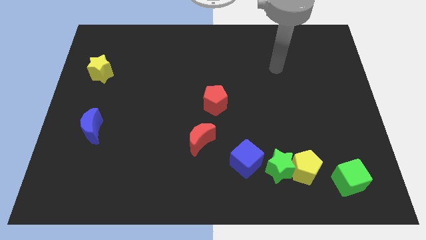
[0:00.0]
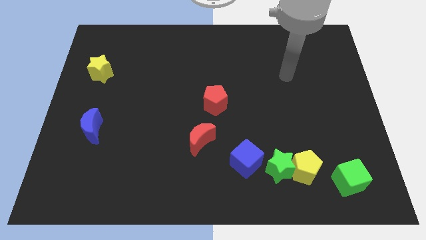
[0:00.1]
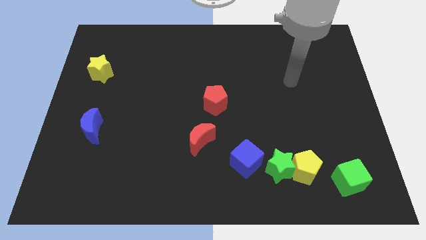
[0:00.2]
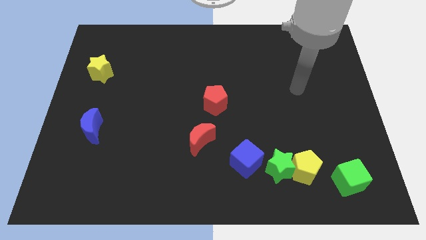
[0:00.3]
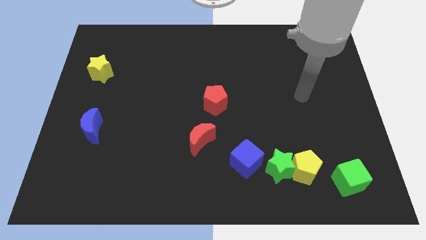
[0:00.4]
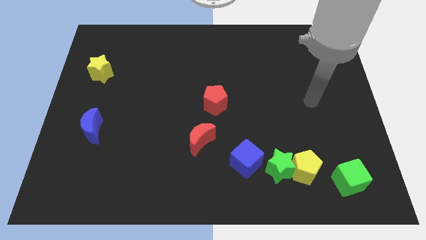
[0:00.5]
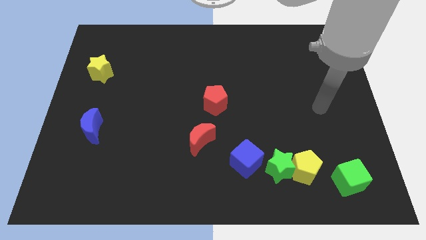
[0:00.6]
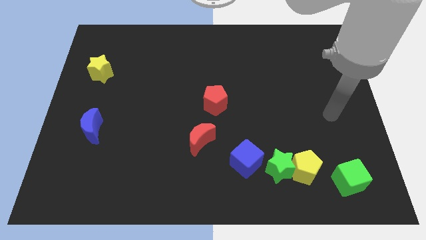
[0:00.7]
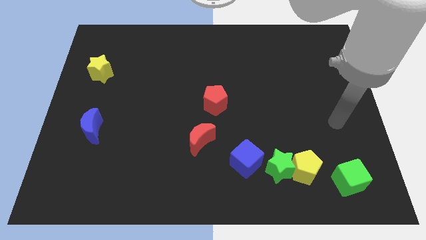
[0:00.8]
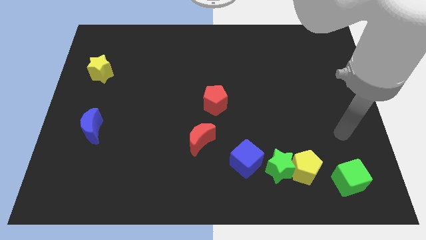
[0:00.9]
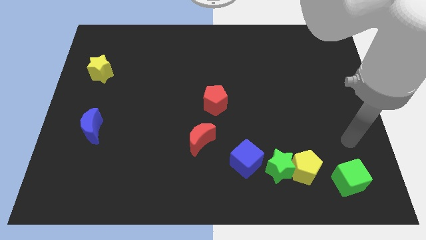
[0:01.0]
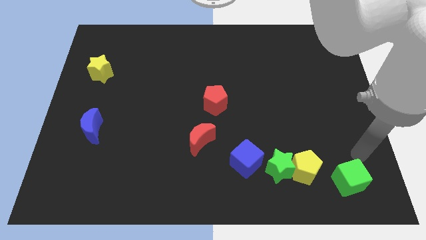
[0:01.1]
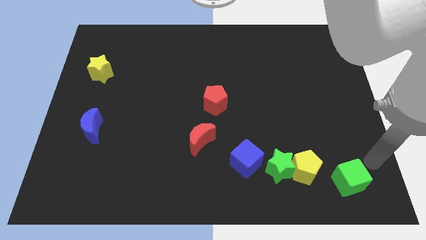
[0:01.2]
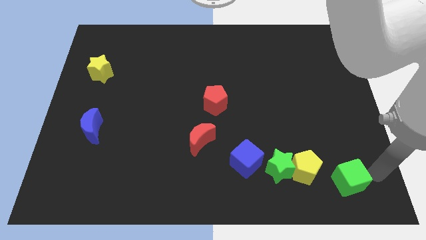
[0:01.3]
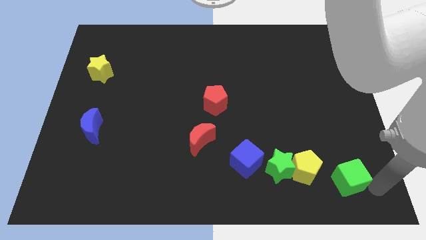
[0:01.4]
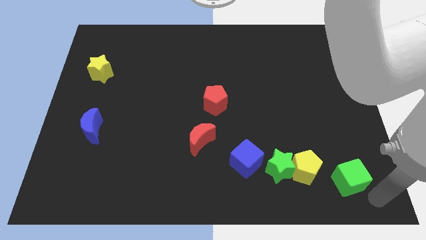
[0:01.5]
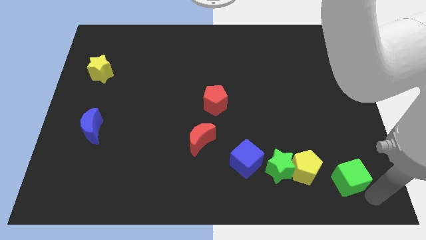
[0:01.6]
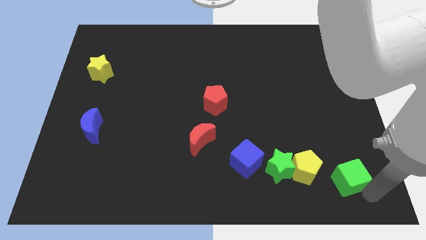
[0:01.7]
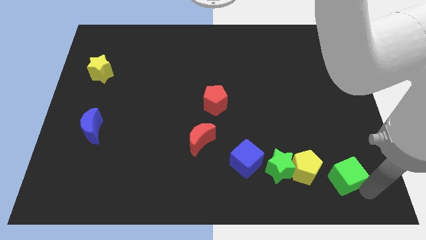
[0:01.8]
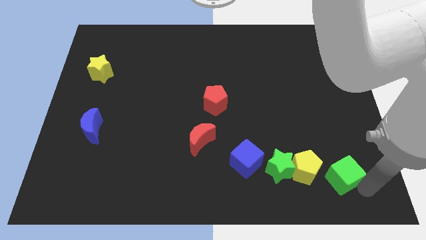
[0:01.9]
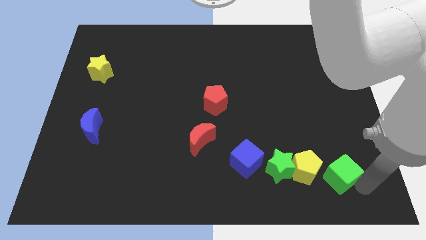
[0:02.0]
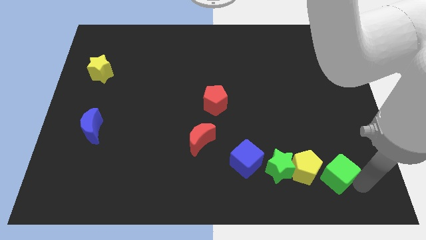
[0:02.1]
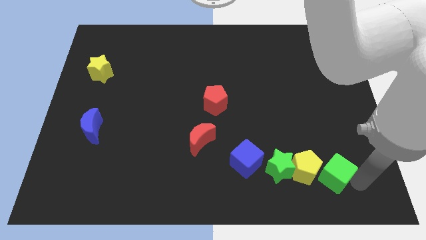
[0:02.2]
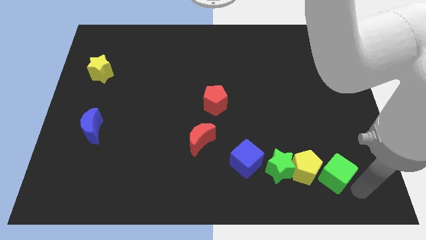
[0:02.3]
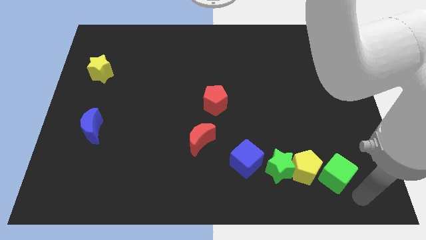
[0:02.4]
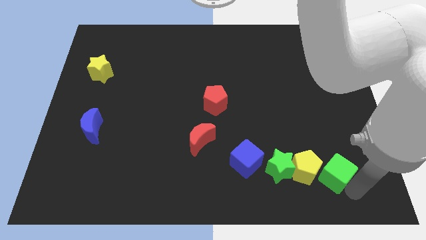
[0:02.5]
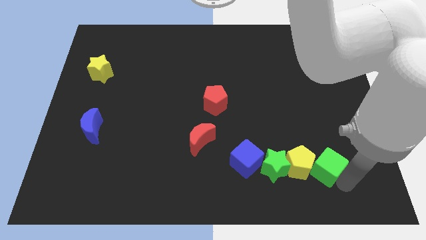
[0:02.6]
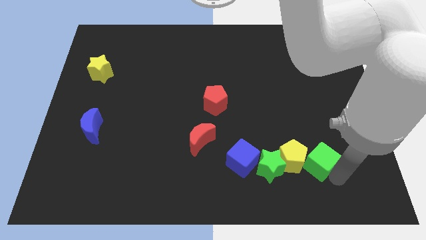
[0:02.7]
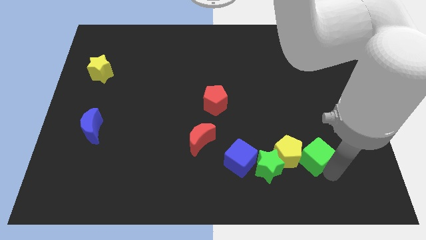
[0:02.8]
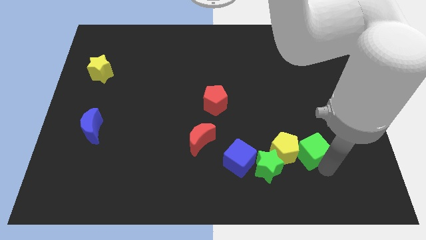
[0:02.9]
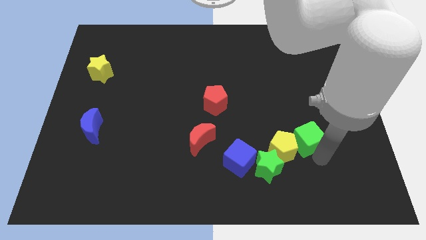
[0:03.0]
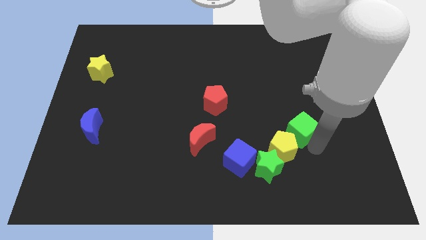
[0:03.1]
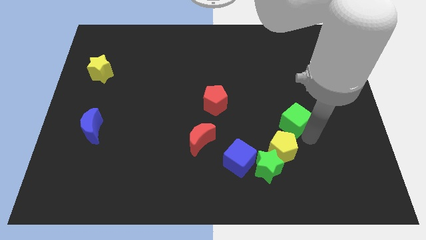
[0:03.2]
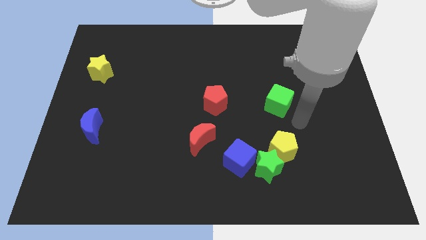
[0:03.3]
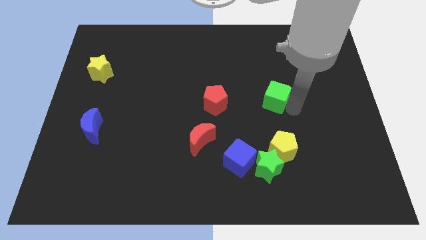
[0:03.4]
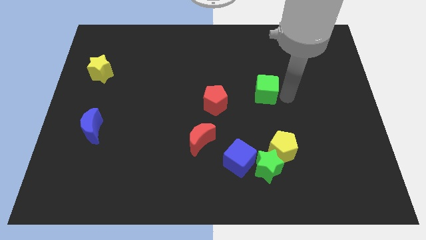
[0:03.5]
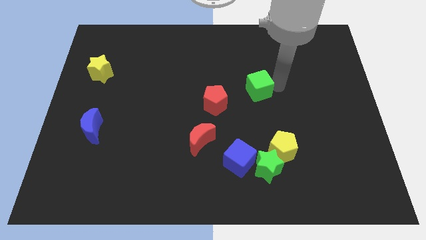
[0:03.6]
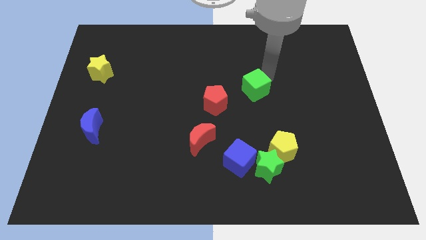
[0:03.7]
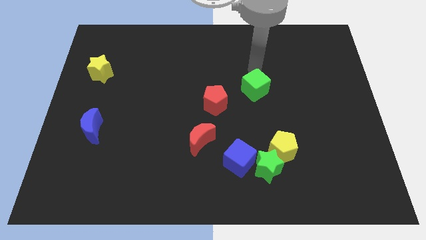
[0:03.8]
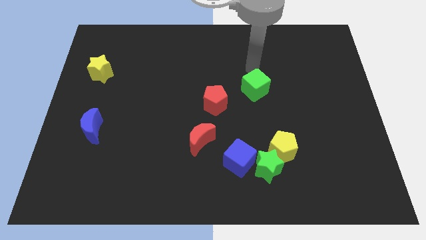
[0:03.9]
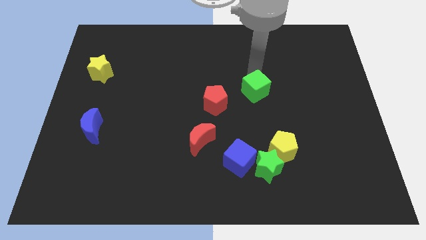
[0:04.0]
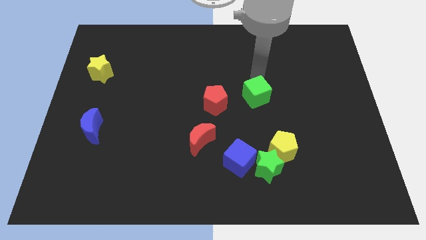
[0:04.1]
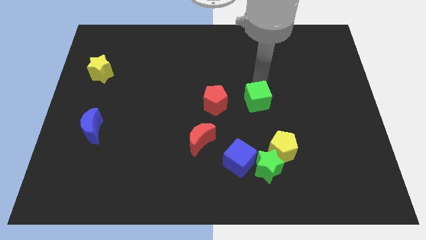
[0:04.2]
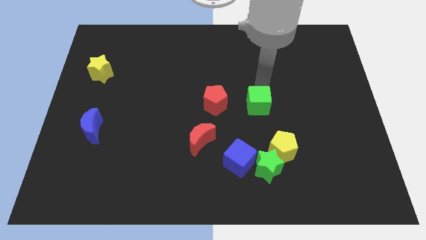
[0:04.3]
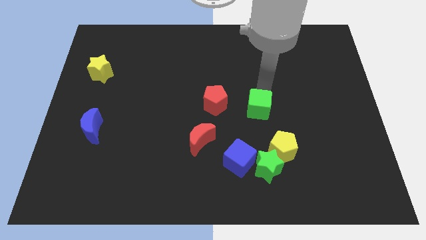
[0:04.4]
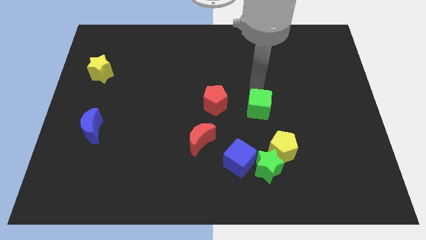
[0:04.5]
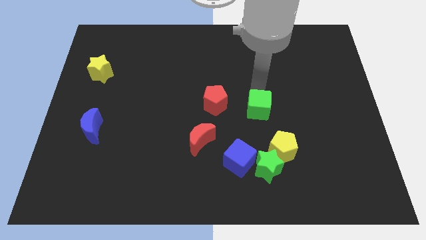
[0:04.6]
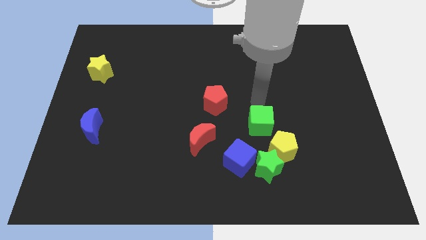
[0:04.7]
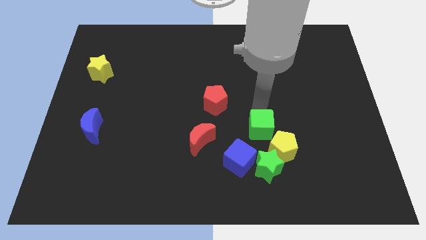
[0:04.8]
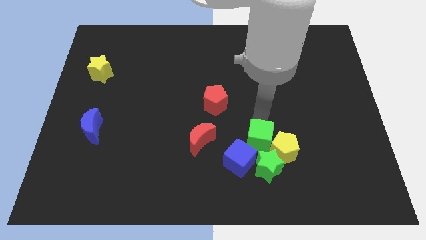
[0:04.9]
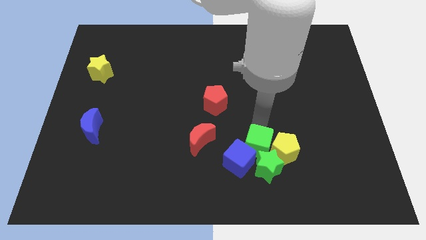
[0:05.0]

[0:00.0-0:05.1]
put the green cube to the green star

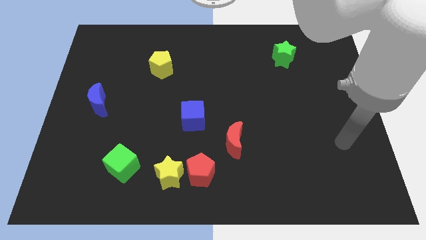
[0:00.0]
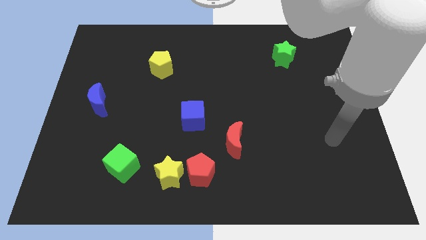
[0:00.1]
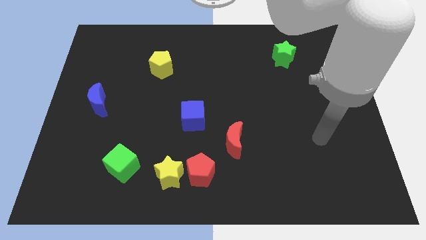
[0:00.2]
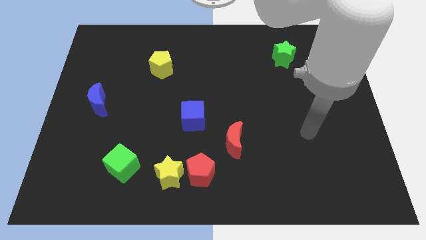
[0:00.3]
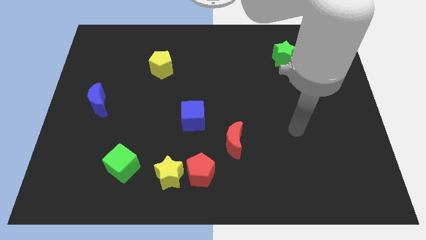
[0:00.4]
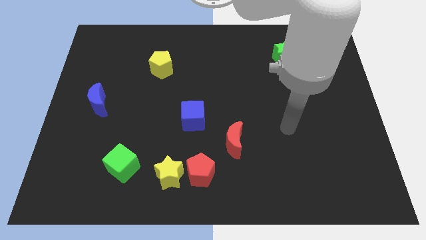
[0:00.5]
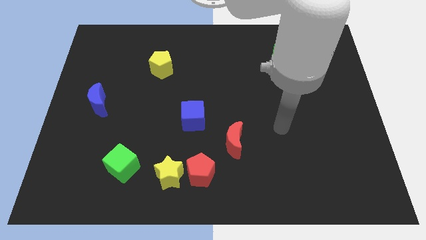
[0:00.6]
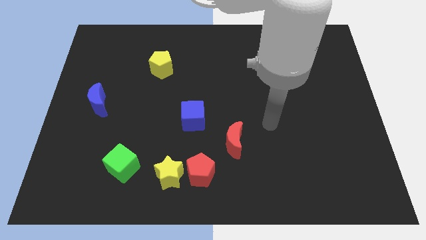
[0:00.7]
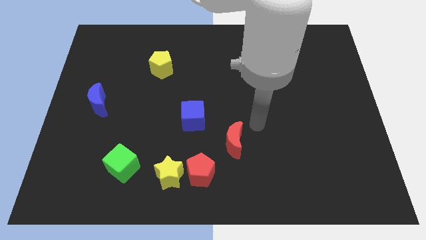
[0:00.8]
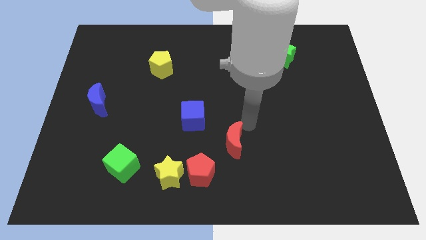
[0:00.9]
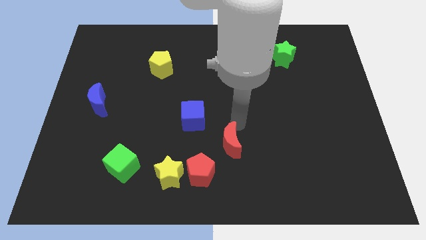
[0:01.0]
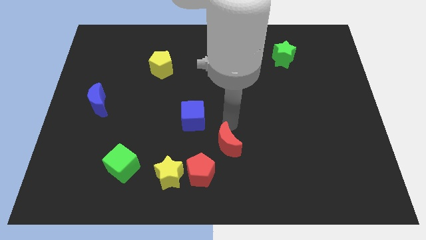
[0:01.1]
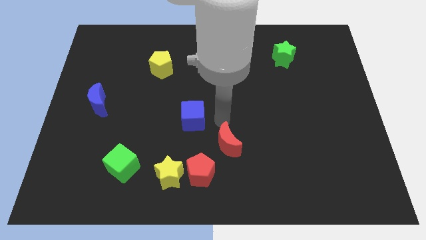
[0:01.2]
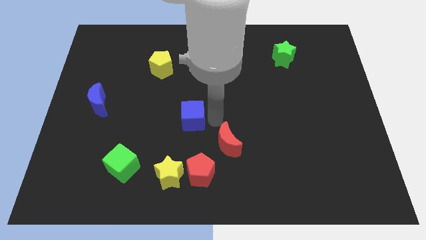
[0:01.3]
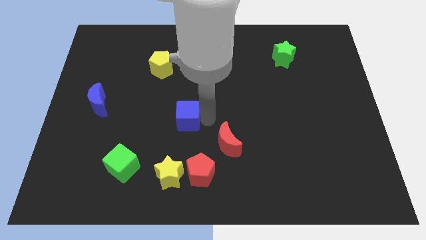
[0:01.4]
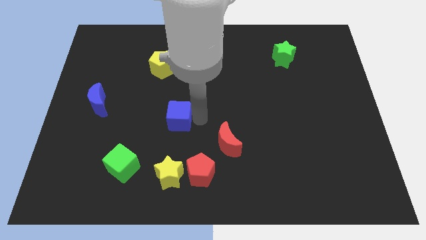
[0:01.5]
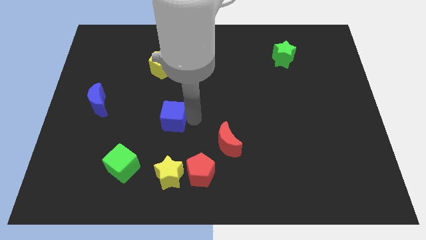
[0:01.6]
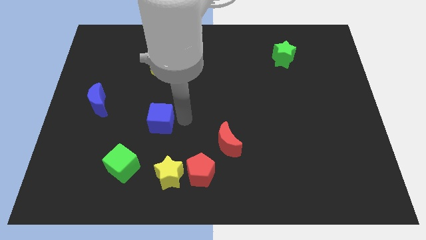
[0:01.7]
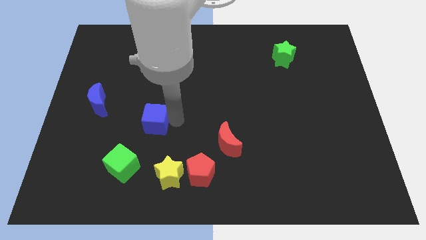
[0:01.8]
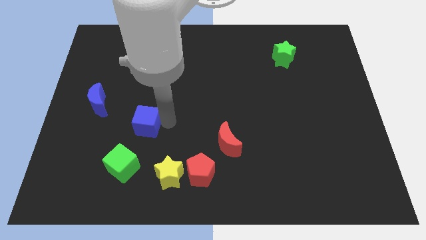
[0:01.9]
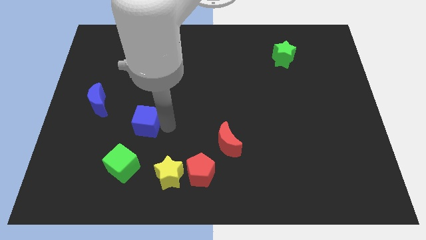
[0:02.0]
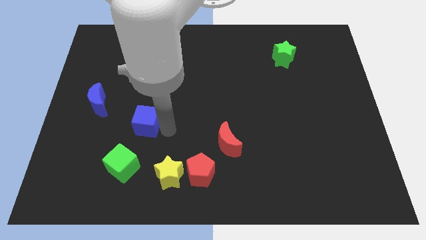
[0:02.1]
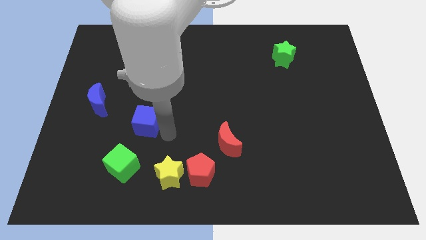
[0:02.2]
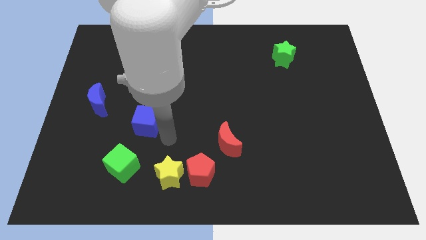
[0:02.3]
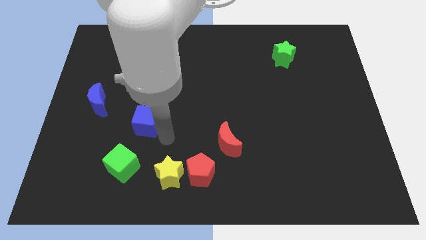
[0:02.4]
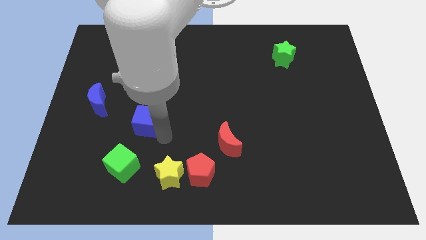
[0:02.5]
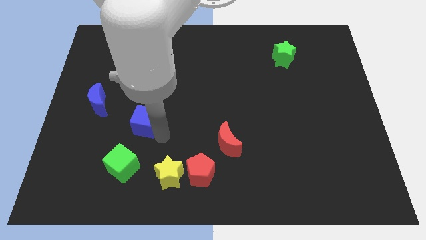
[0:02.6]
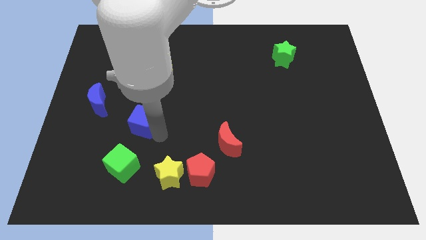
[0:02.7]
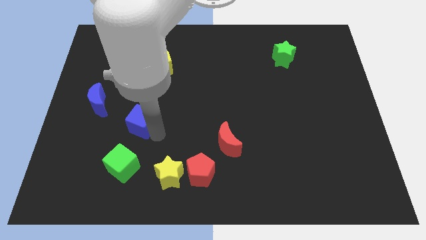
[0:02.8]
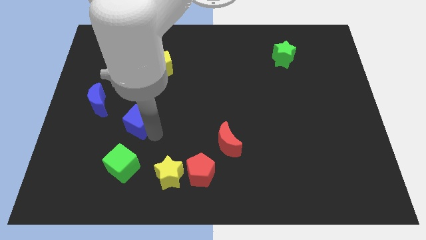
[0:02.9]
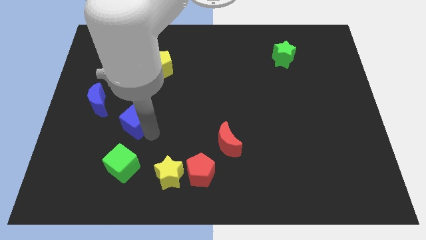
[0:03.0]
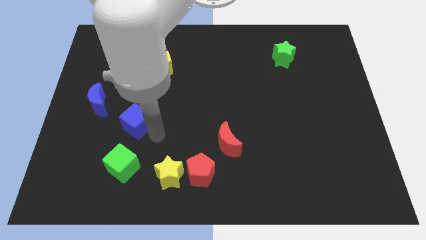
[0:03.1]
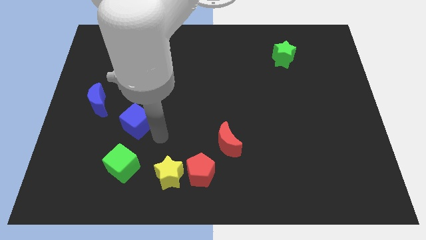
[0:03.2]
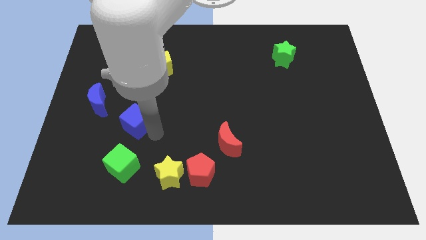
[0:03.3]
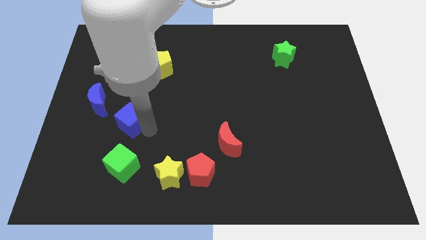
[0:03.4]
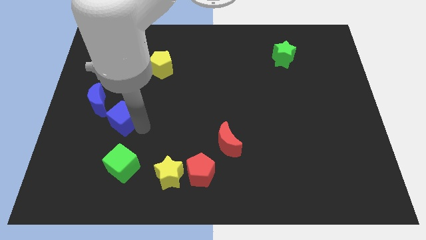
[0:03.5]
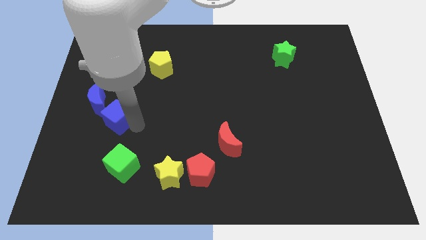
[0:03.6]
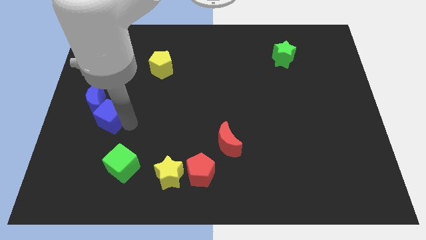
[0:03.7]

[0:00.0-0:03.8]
push the blue cube to the blue moon
